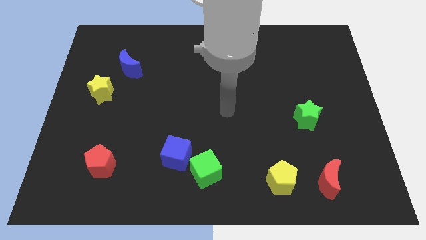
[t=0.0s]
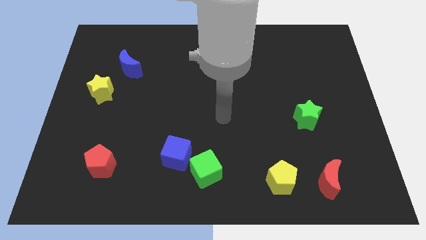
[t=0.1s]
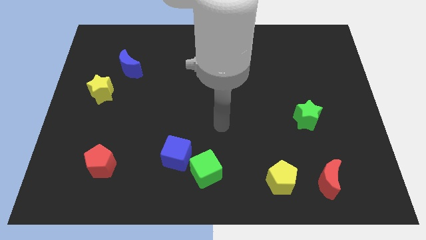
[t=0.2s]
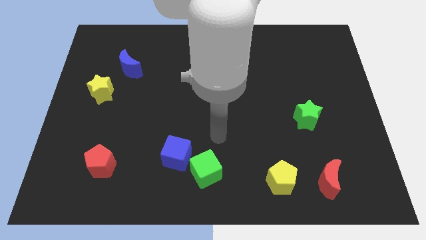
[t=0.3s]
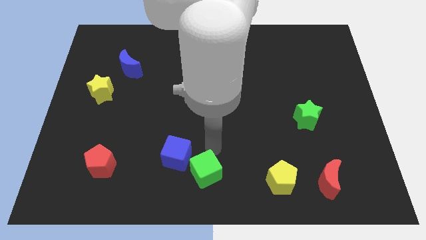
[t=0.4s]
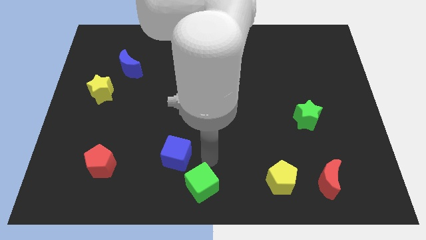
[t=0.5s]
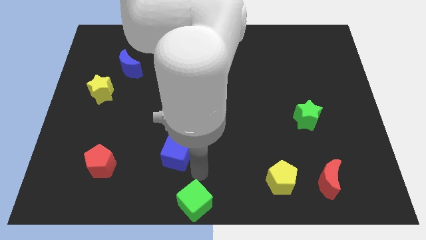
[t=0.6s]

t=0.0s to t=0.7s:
move the blue cube away from the green cube

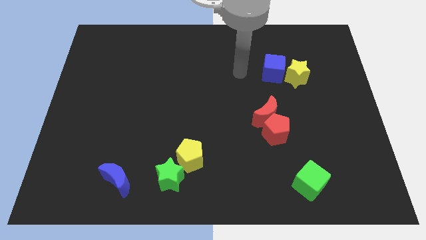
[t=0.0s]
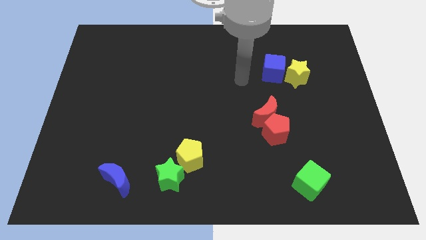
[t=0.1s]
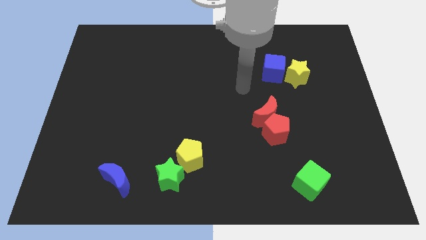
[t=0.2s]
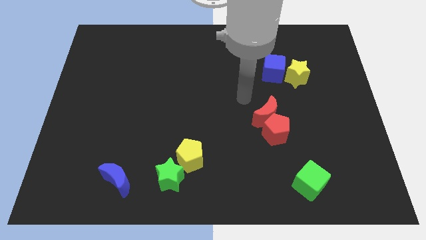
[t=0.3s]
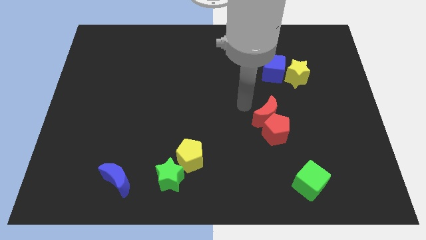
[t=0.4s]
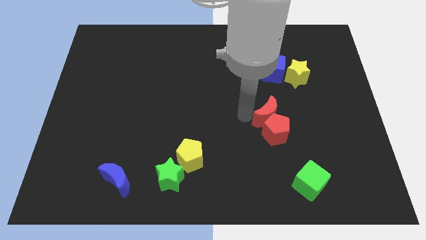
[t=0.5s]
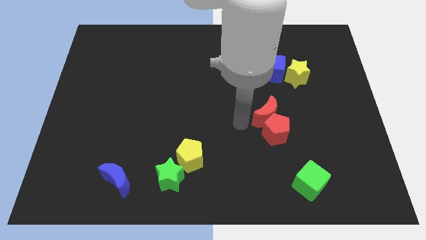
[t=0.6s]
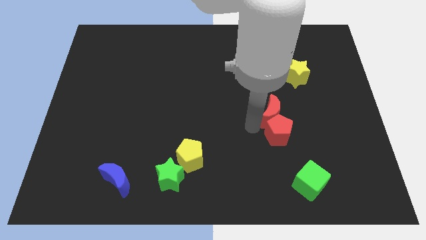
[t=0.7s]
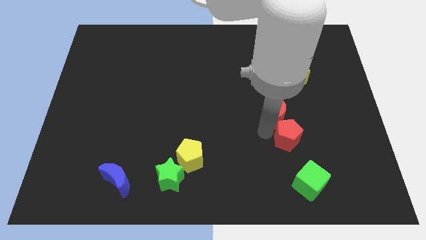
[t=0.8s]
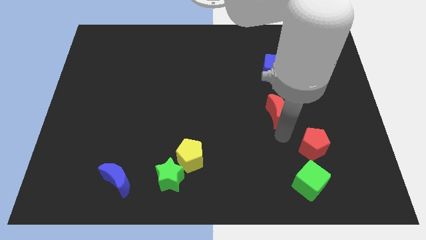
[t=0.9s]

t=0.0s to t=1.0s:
pull the red moon apart from the red pentagon

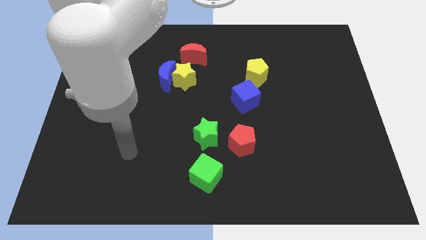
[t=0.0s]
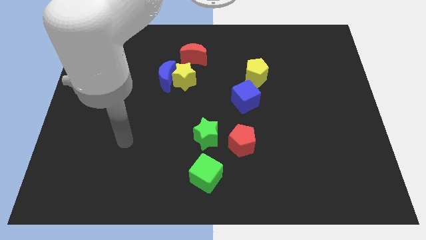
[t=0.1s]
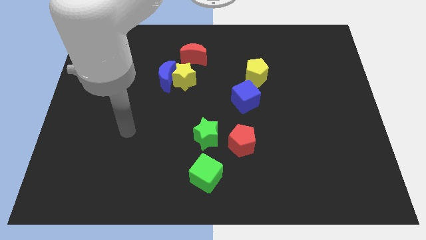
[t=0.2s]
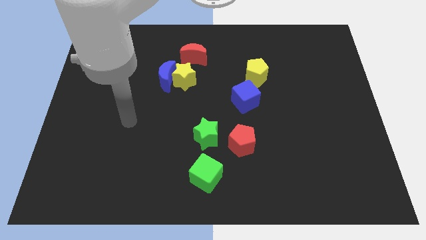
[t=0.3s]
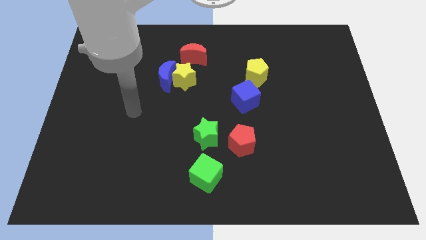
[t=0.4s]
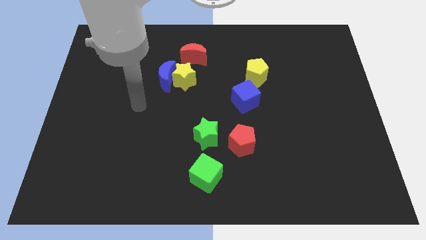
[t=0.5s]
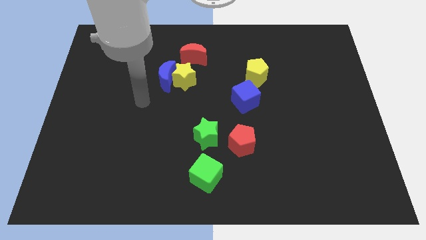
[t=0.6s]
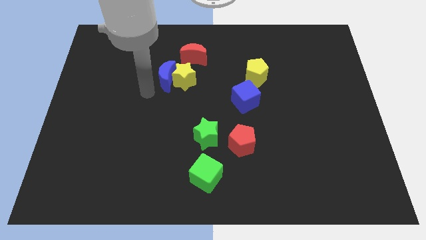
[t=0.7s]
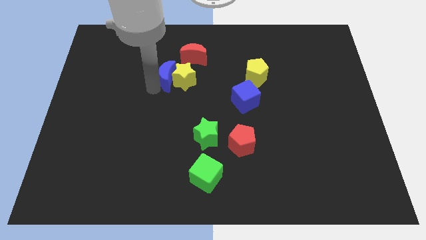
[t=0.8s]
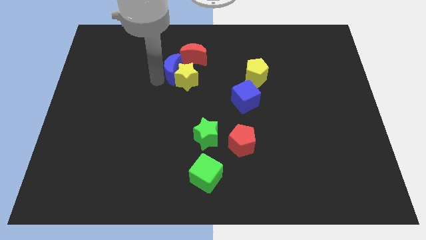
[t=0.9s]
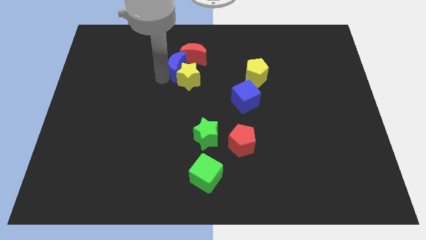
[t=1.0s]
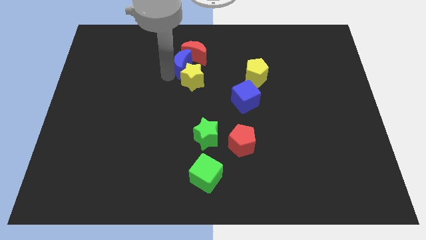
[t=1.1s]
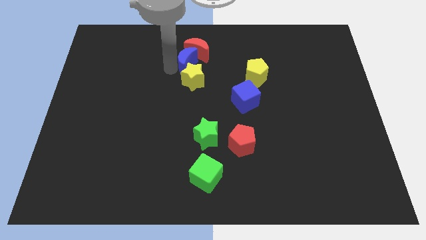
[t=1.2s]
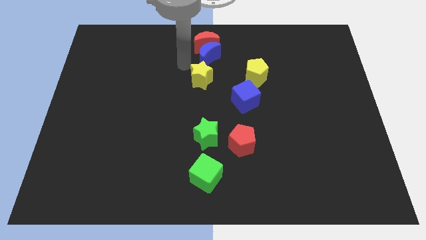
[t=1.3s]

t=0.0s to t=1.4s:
pull the yellow star apart from the blue moon and red moon

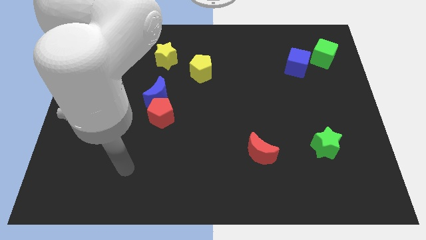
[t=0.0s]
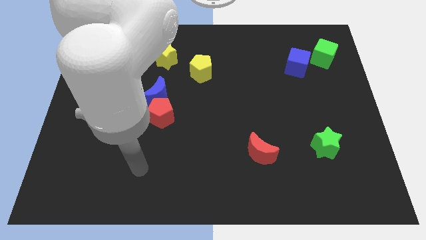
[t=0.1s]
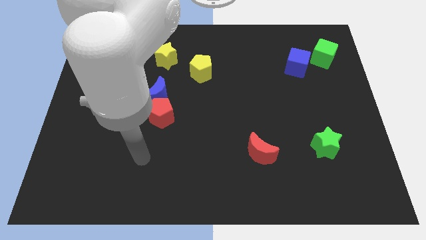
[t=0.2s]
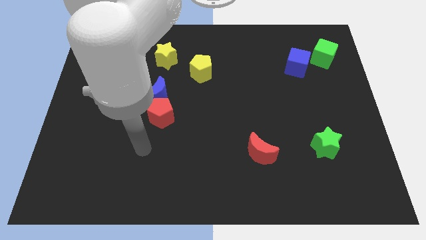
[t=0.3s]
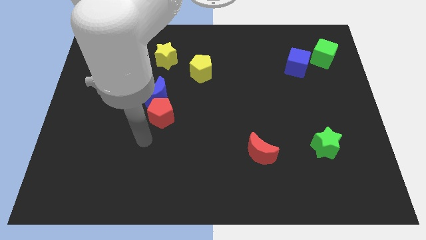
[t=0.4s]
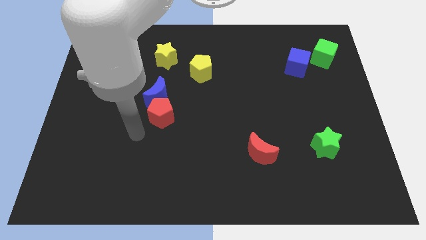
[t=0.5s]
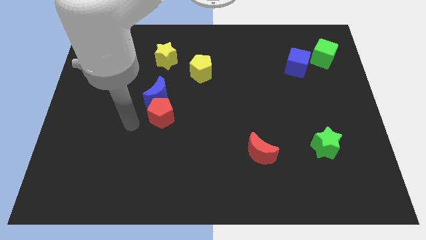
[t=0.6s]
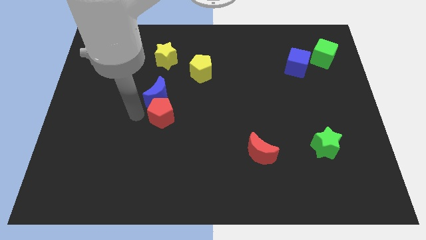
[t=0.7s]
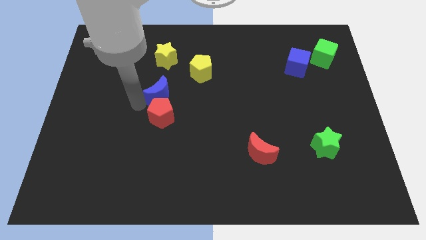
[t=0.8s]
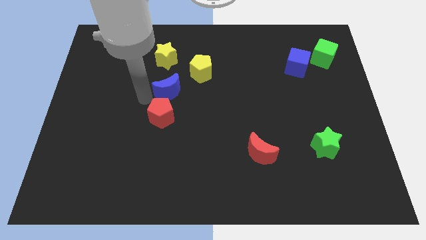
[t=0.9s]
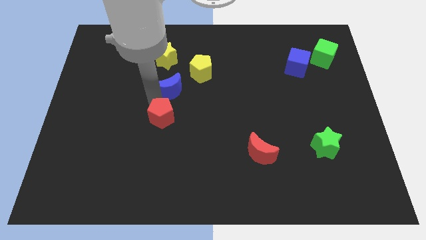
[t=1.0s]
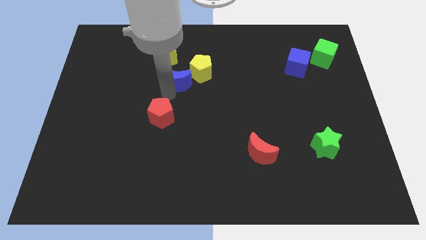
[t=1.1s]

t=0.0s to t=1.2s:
pull the red pentagon apart from the blue moon

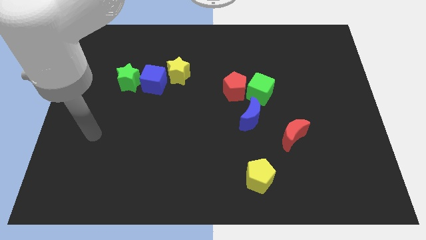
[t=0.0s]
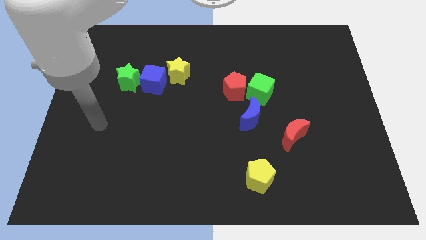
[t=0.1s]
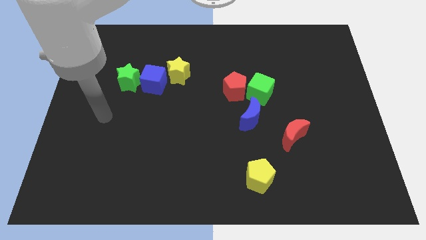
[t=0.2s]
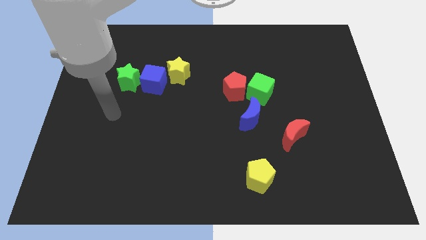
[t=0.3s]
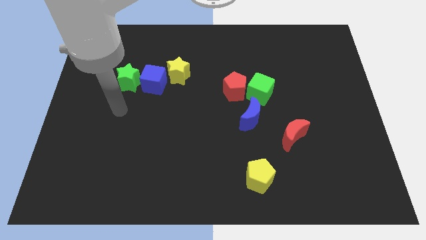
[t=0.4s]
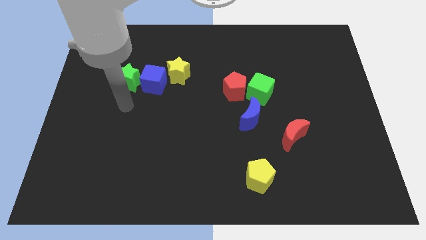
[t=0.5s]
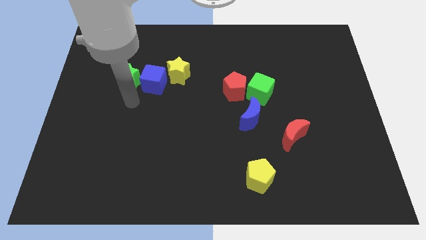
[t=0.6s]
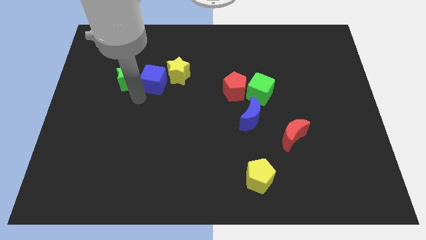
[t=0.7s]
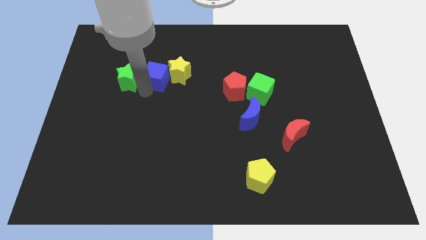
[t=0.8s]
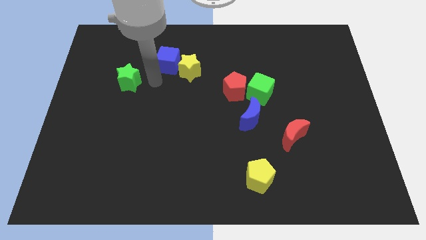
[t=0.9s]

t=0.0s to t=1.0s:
pull the green star apart from the blue cube

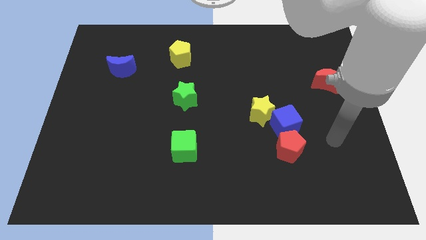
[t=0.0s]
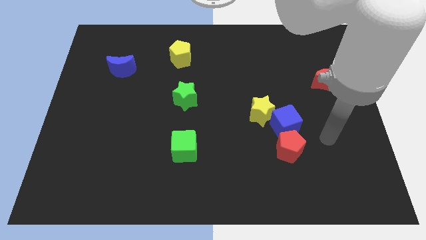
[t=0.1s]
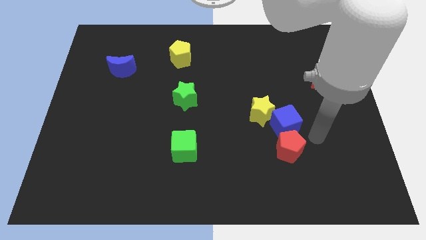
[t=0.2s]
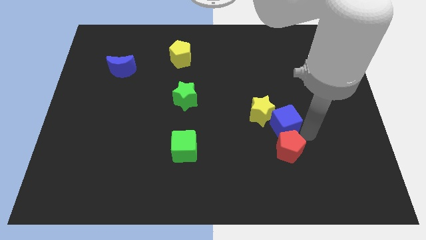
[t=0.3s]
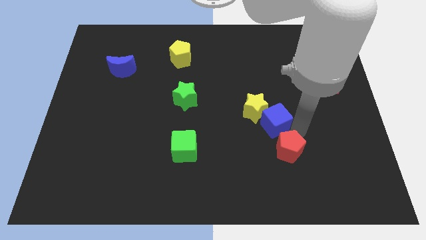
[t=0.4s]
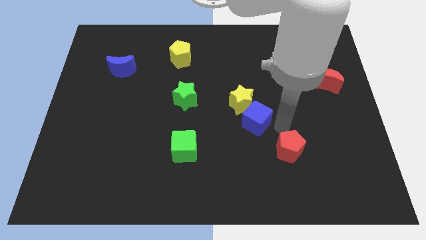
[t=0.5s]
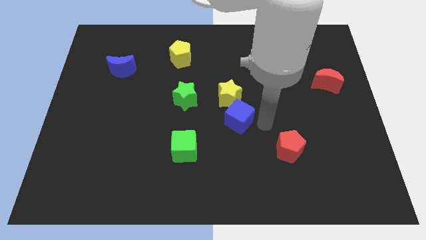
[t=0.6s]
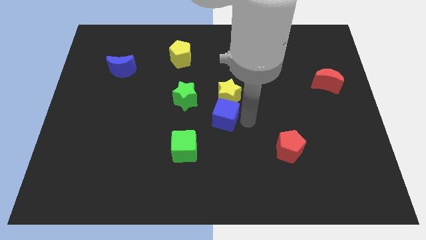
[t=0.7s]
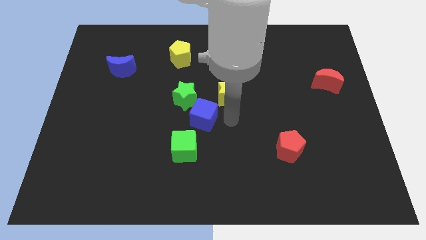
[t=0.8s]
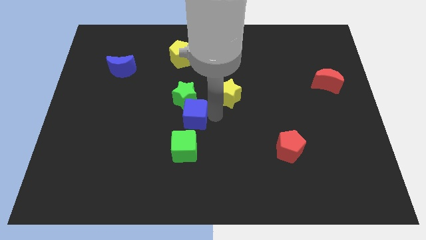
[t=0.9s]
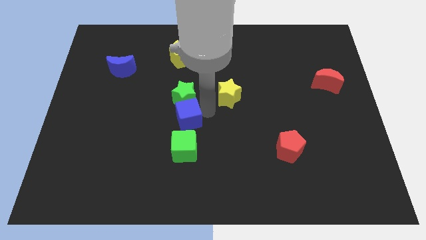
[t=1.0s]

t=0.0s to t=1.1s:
separate the yellow star from the blue cube

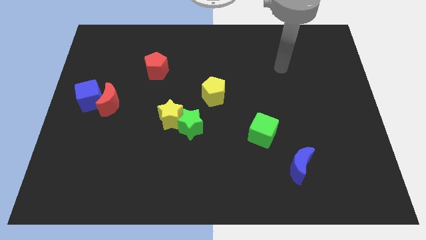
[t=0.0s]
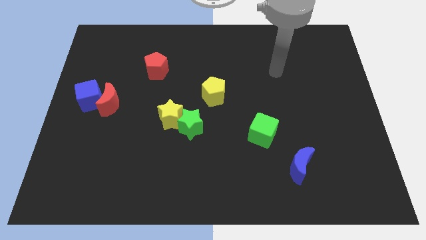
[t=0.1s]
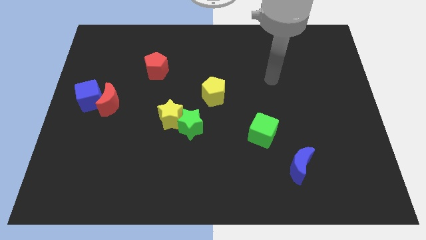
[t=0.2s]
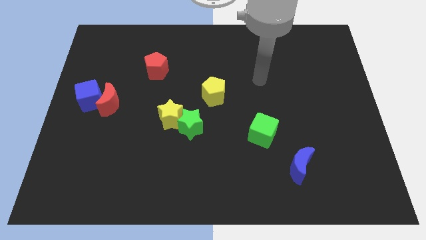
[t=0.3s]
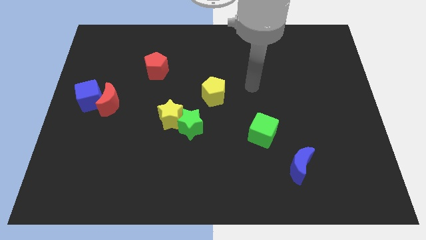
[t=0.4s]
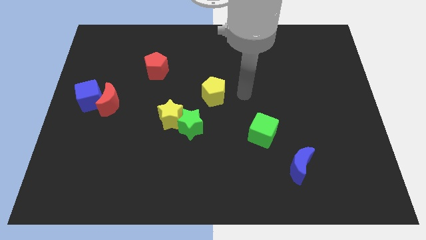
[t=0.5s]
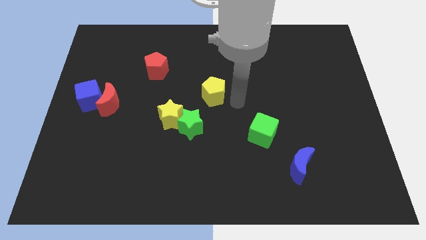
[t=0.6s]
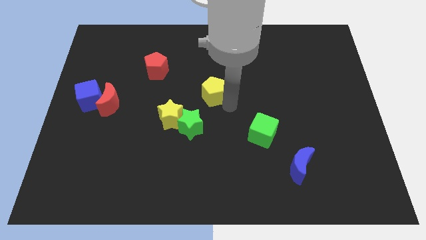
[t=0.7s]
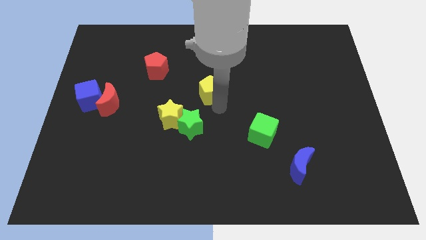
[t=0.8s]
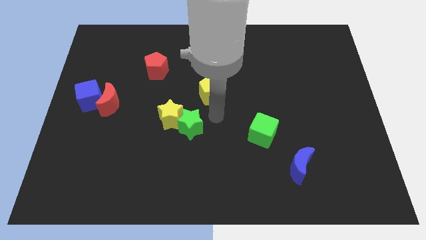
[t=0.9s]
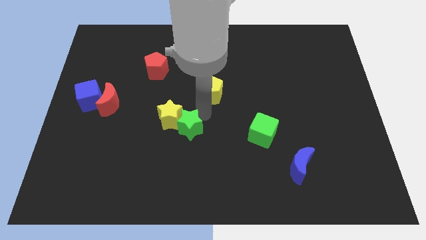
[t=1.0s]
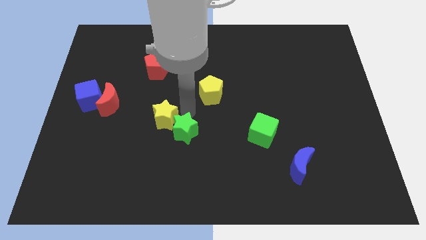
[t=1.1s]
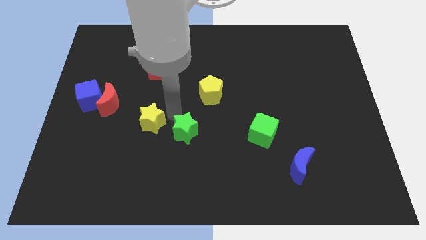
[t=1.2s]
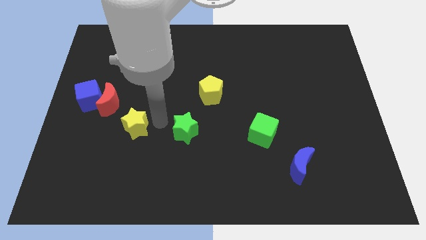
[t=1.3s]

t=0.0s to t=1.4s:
pull the green star apart from the yellow star

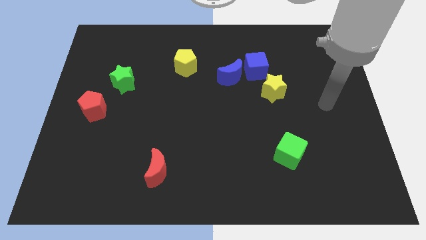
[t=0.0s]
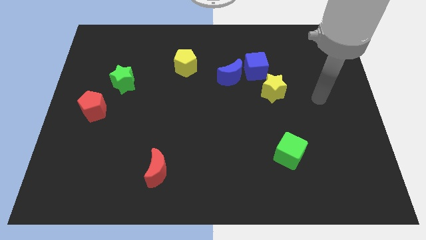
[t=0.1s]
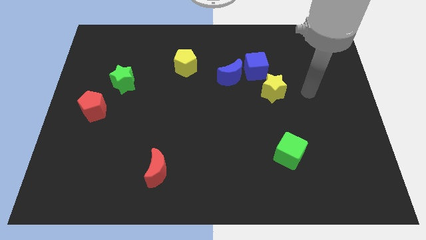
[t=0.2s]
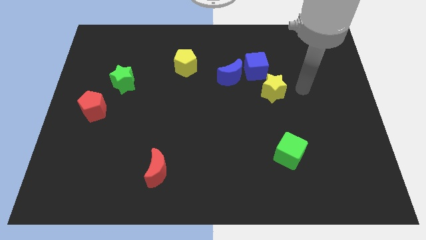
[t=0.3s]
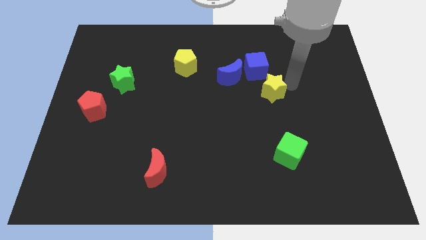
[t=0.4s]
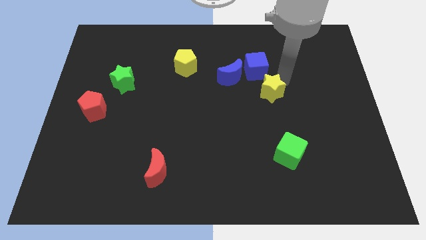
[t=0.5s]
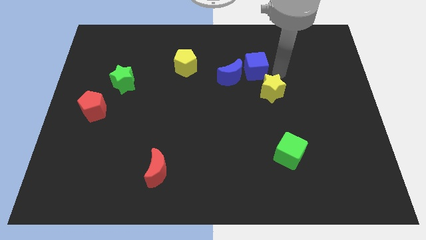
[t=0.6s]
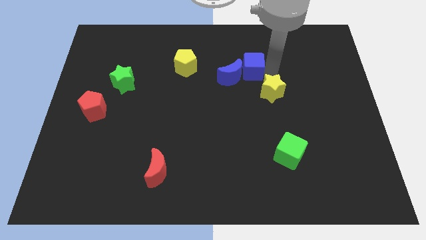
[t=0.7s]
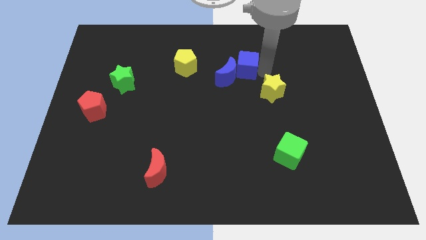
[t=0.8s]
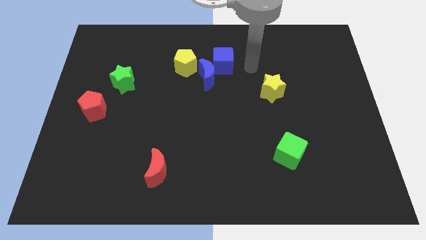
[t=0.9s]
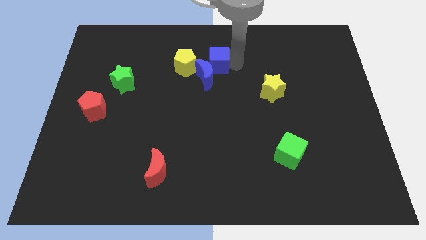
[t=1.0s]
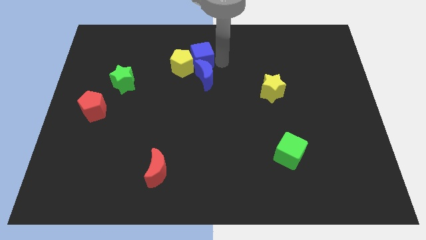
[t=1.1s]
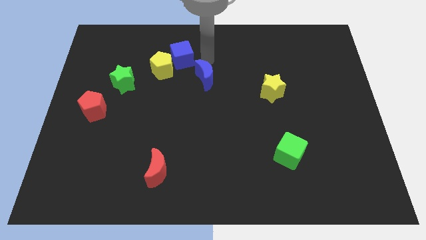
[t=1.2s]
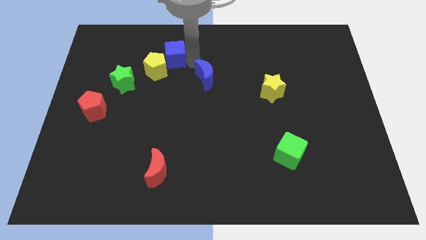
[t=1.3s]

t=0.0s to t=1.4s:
move the blue moon away from the blue cube
